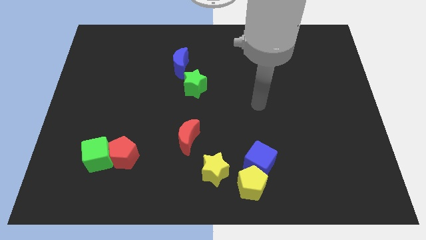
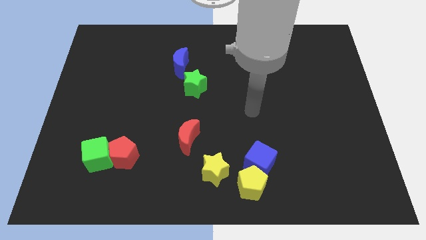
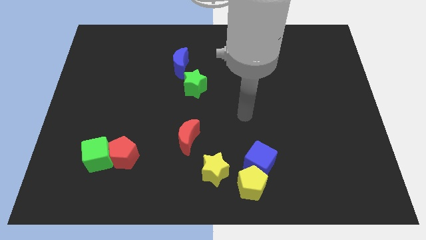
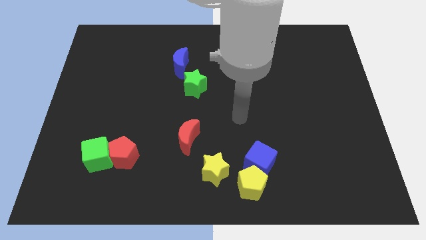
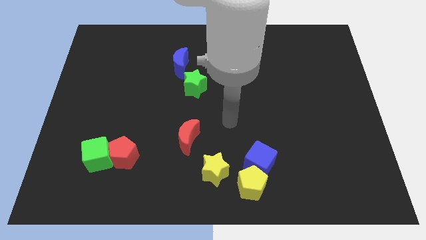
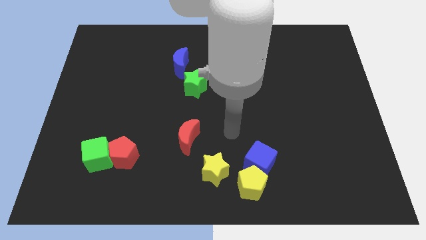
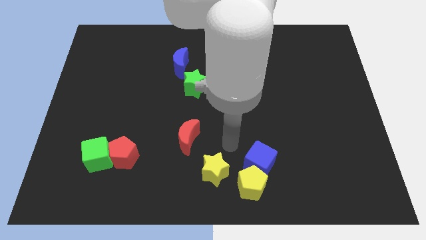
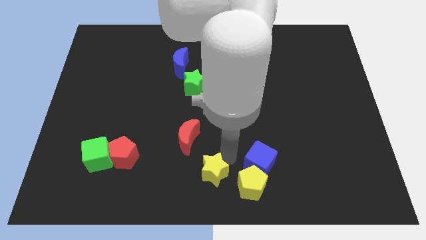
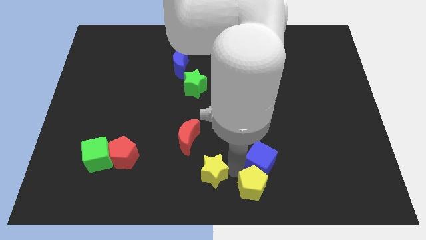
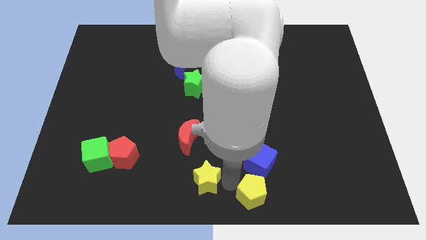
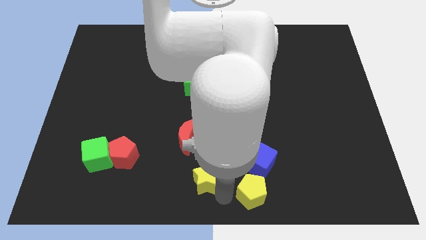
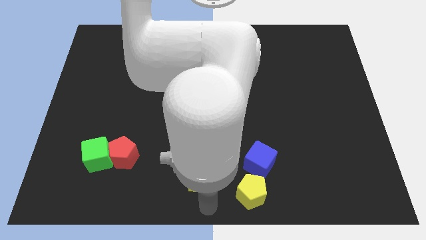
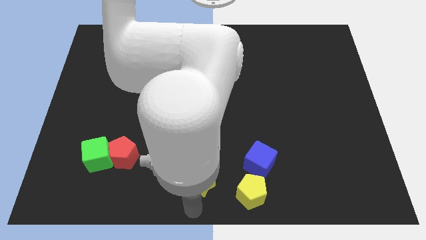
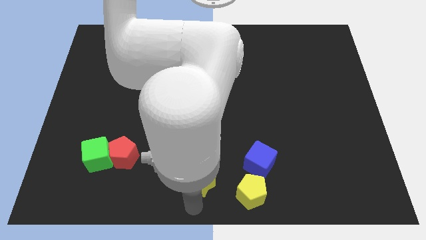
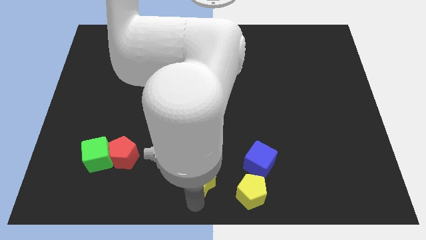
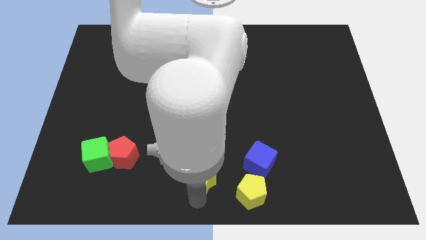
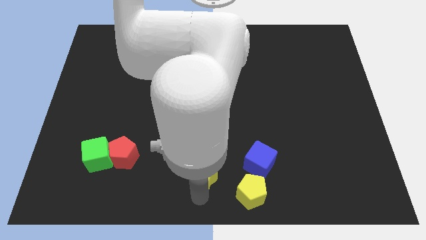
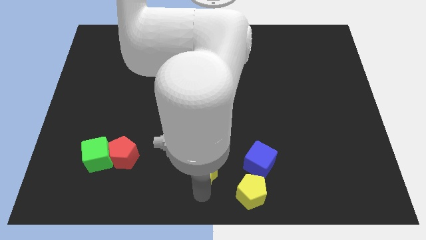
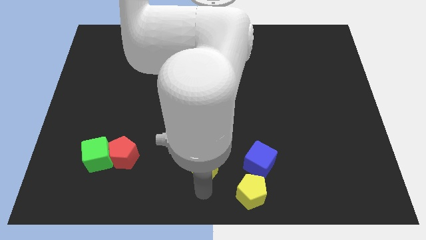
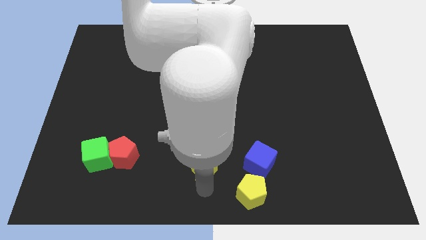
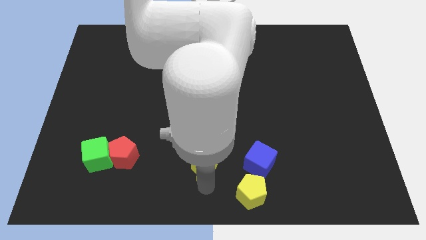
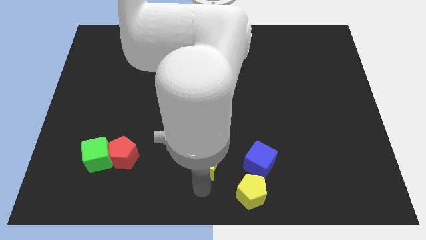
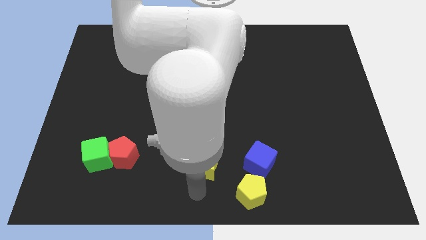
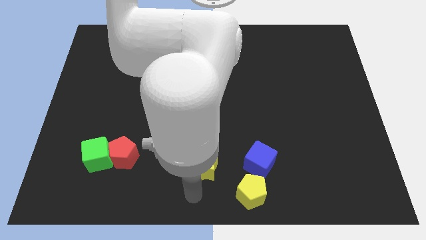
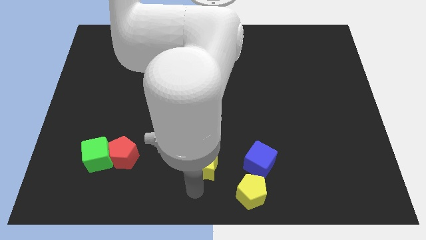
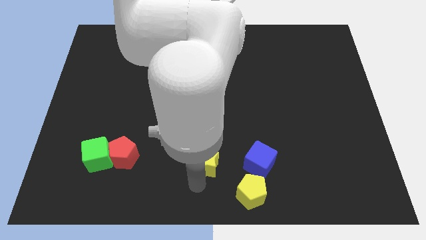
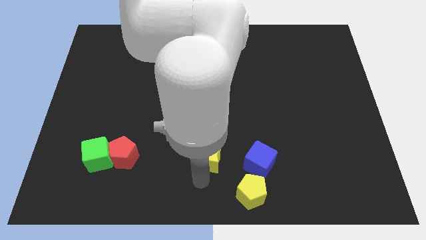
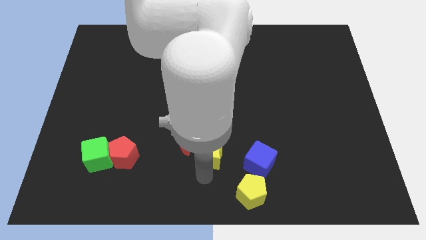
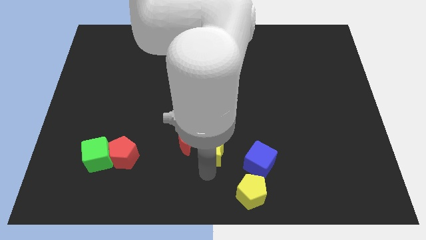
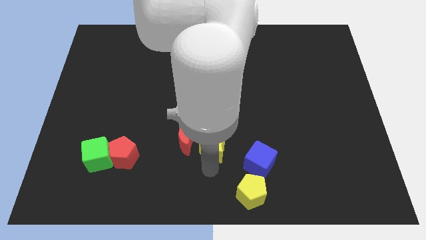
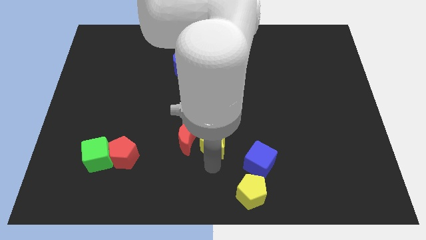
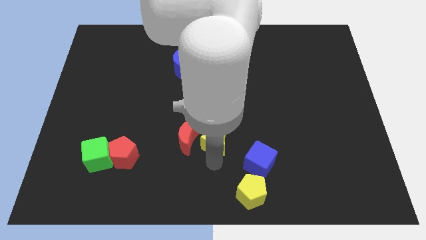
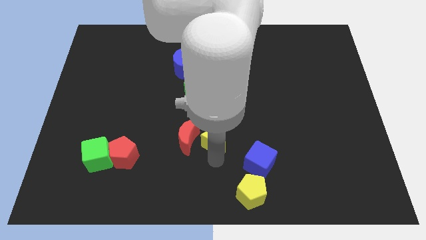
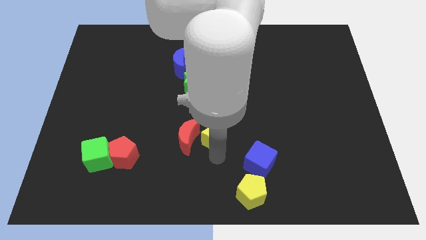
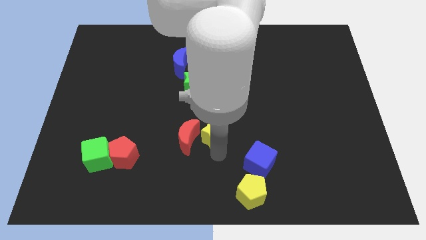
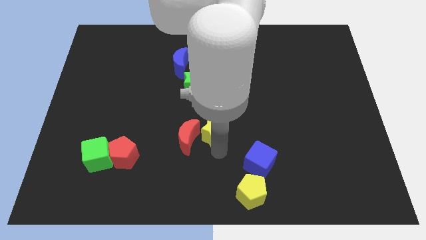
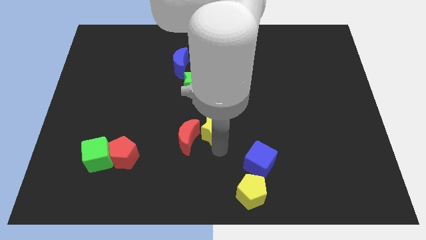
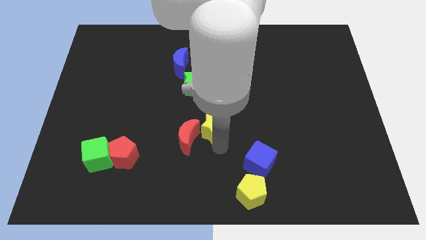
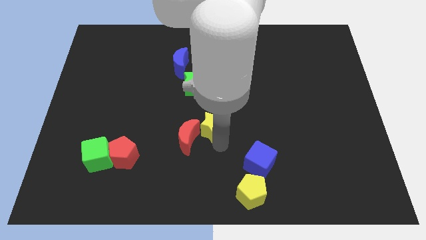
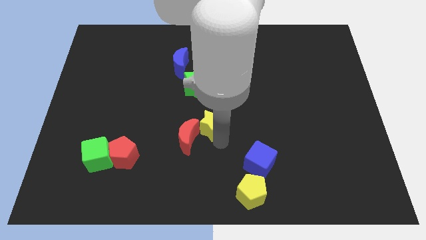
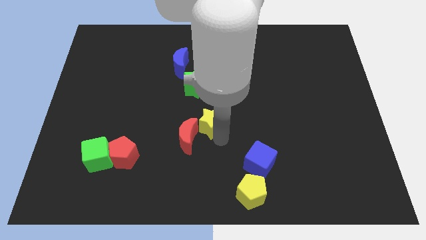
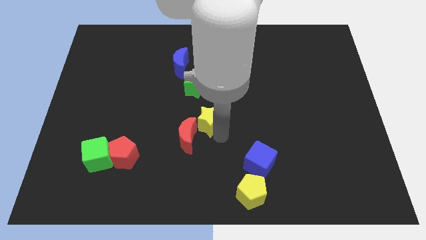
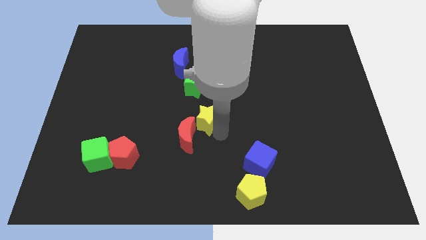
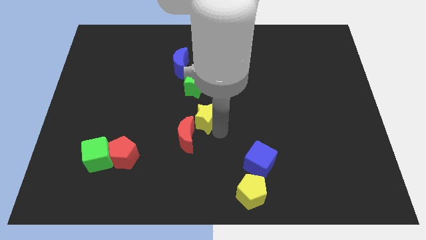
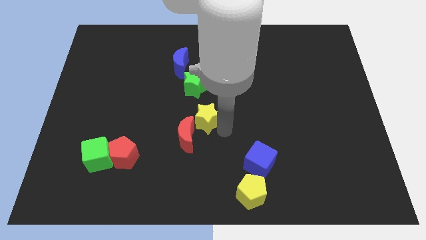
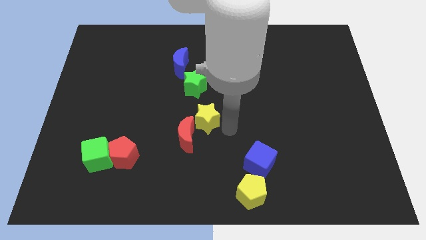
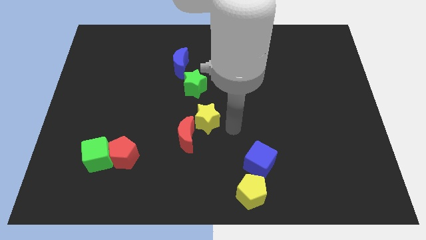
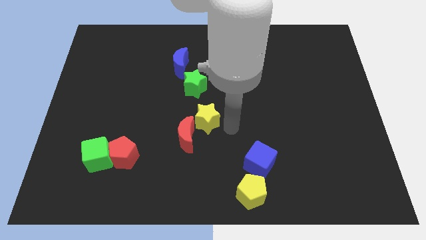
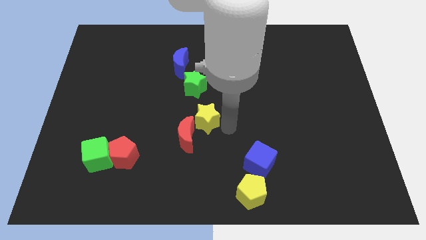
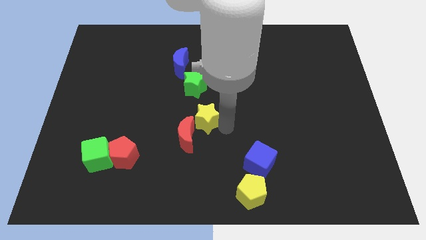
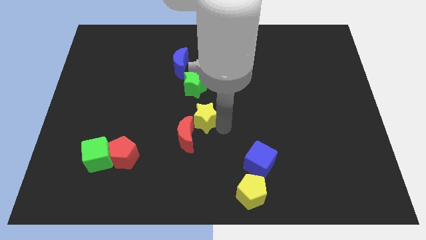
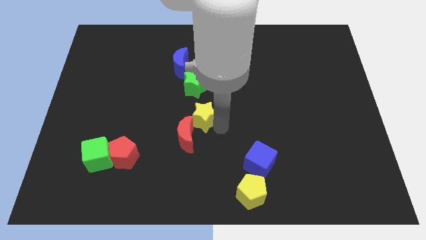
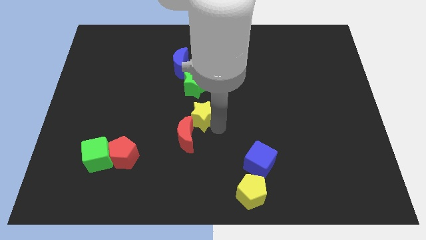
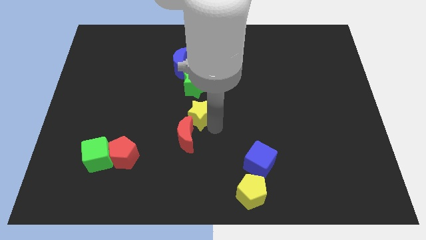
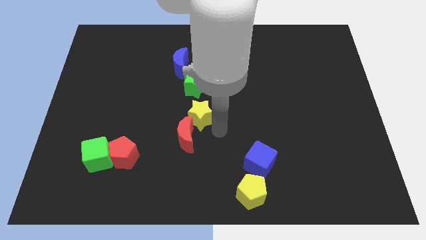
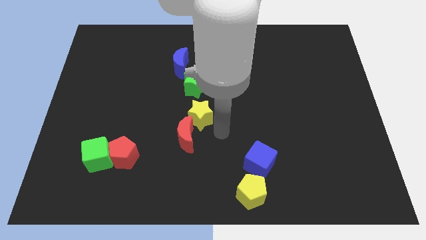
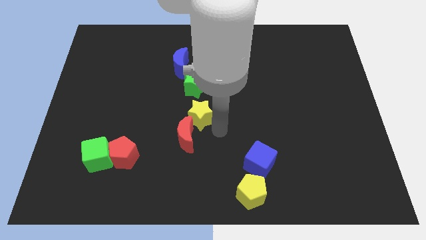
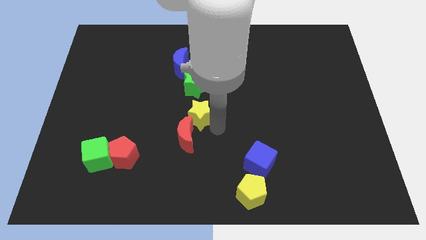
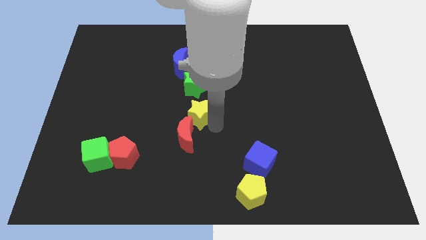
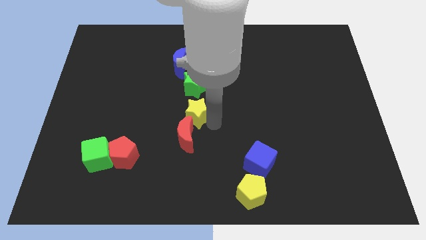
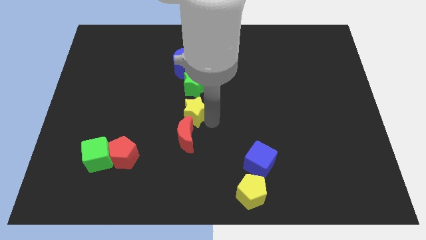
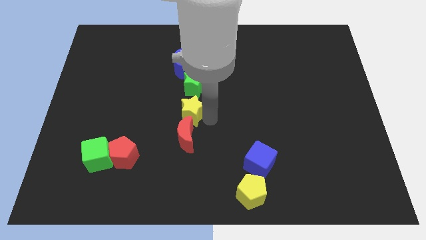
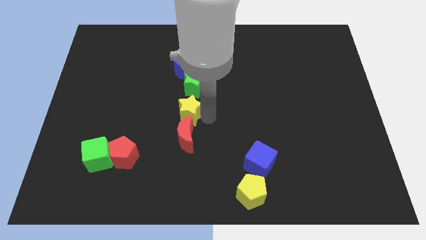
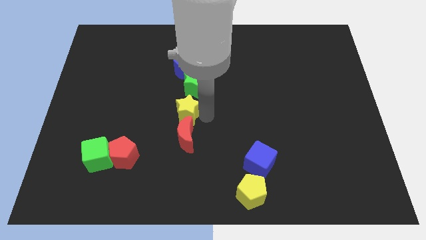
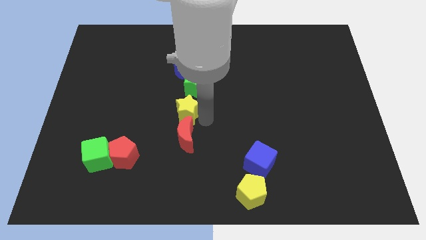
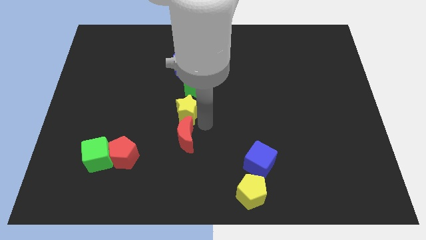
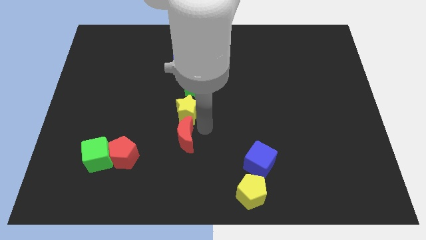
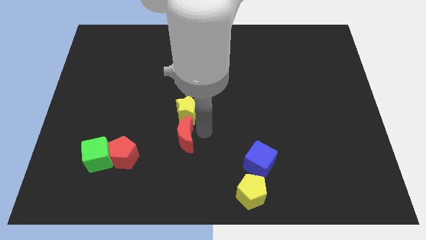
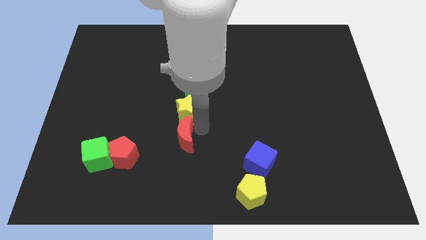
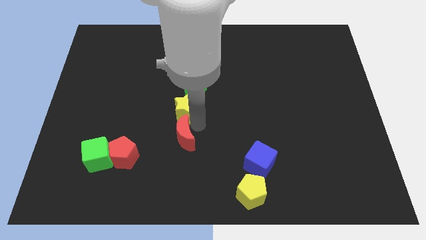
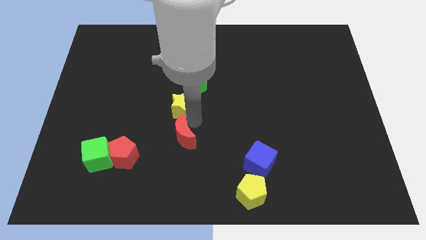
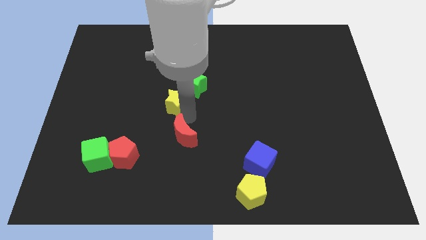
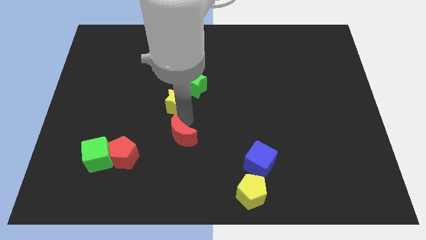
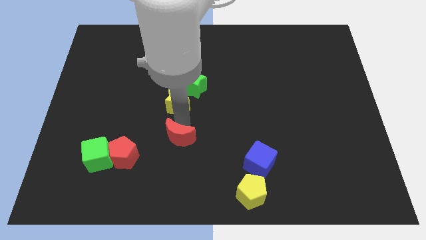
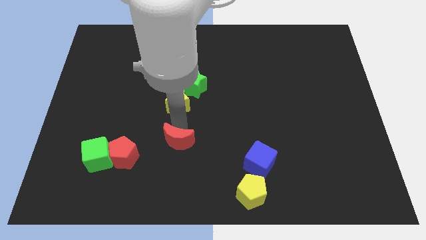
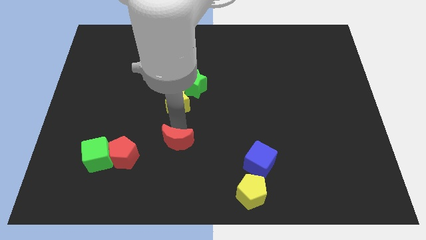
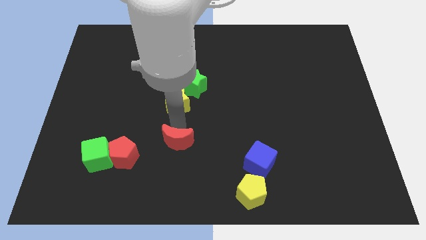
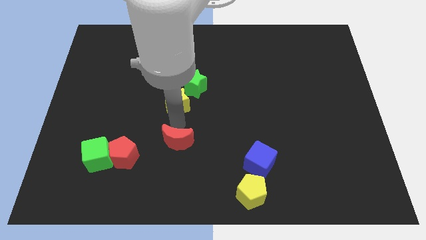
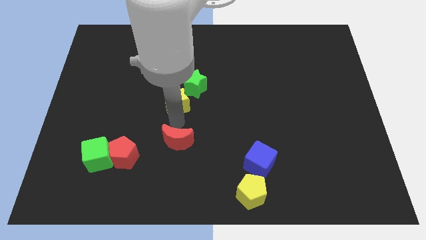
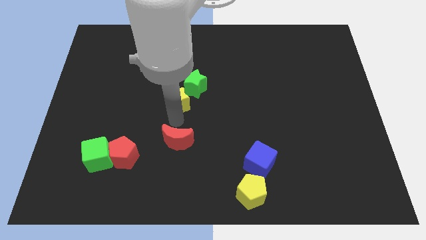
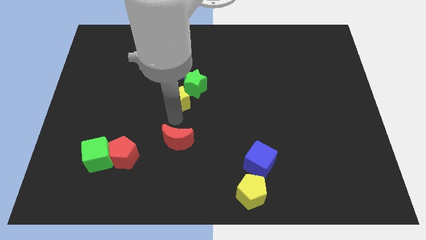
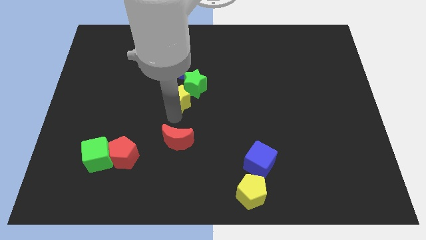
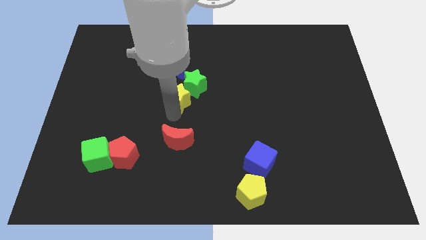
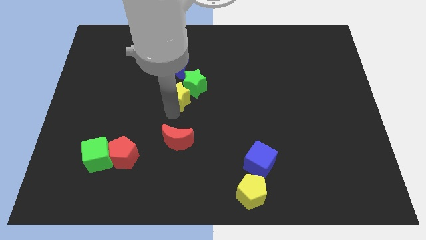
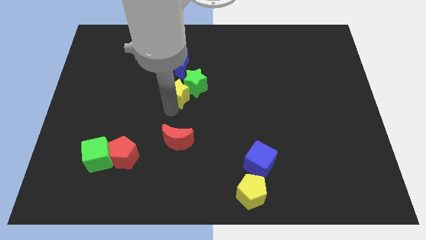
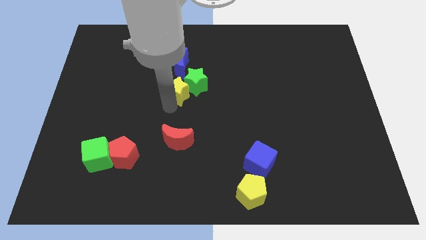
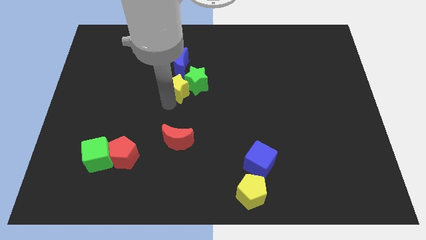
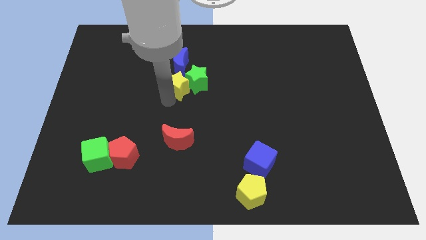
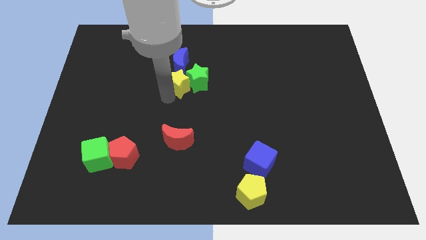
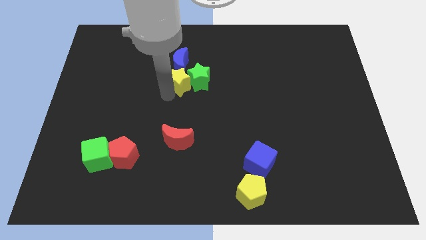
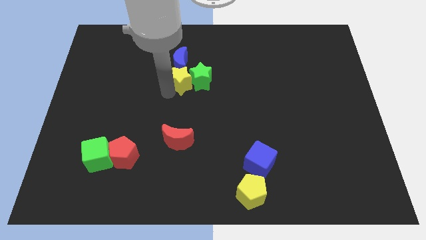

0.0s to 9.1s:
slide the yellow star next to the blue moon
